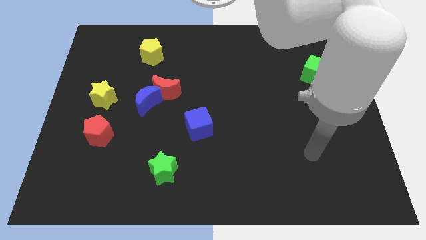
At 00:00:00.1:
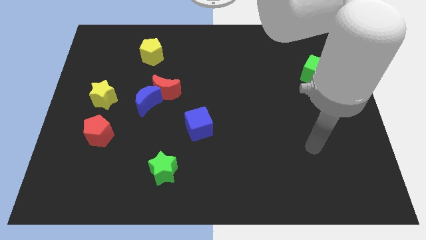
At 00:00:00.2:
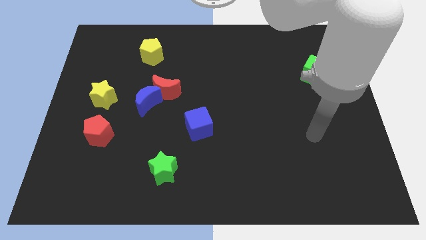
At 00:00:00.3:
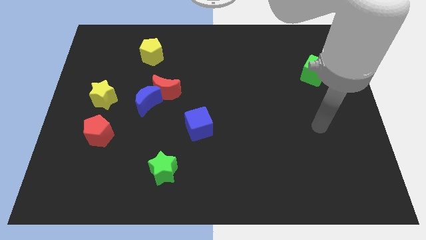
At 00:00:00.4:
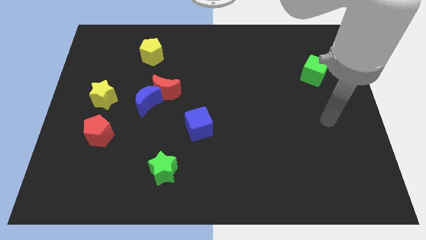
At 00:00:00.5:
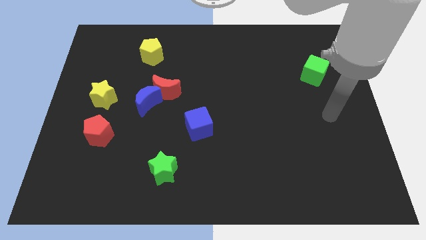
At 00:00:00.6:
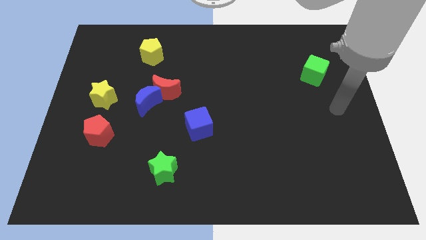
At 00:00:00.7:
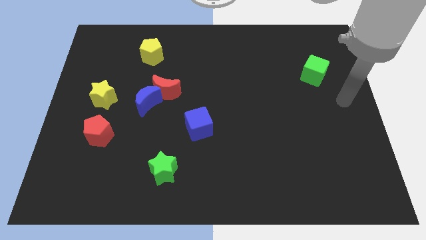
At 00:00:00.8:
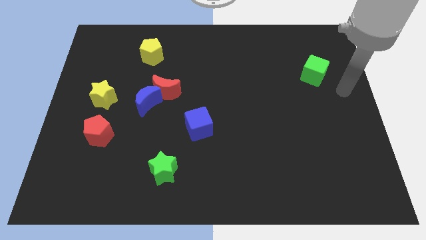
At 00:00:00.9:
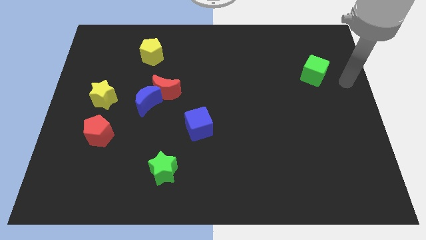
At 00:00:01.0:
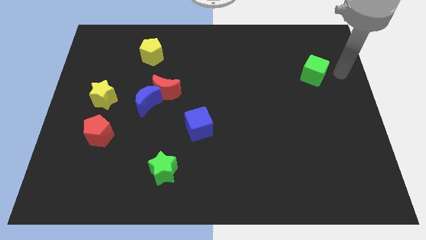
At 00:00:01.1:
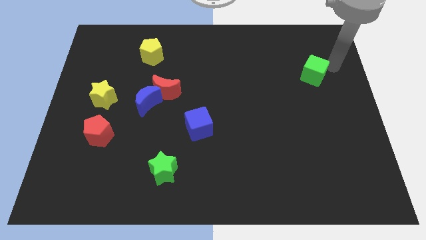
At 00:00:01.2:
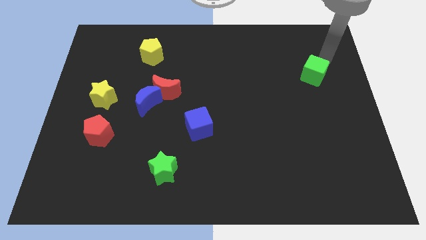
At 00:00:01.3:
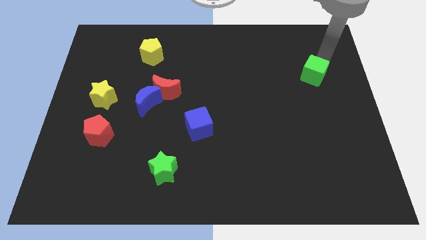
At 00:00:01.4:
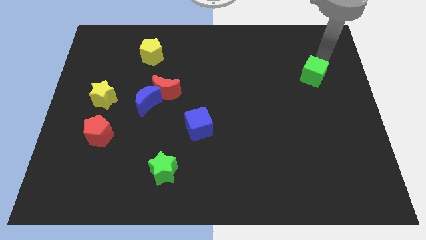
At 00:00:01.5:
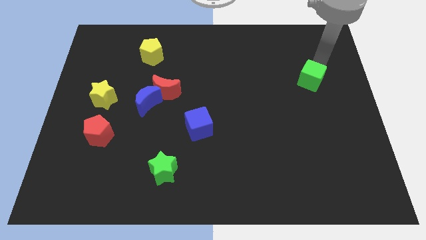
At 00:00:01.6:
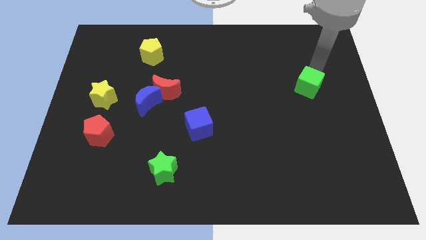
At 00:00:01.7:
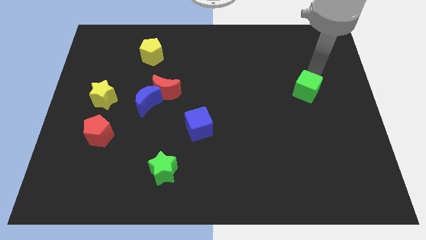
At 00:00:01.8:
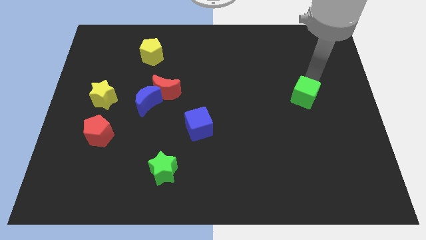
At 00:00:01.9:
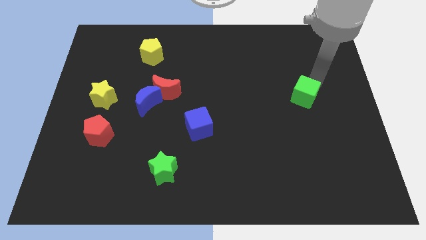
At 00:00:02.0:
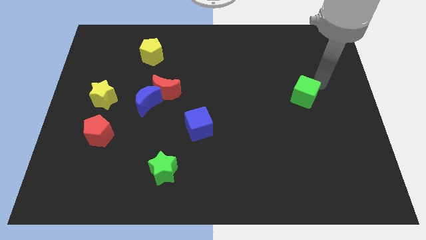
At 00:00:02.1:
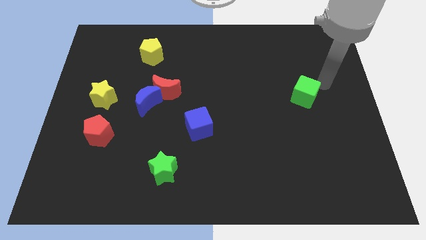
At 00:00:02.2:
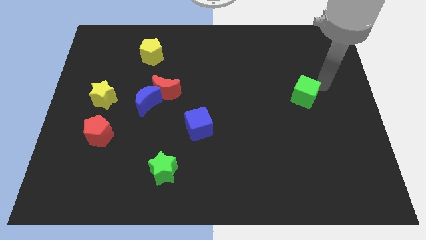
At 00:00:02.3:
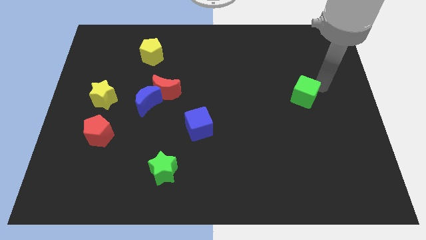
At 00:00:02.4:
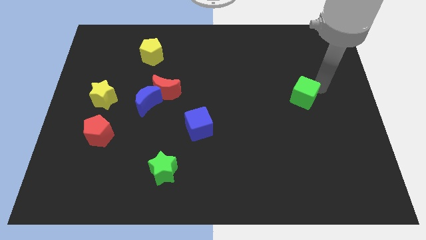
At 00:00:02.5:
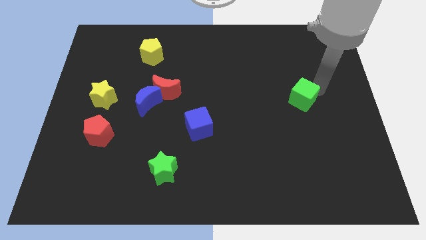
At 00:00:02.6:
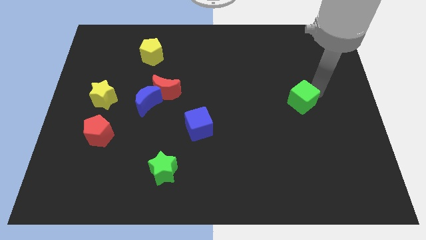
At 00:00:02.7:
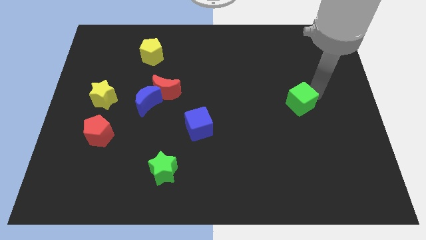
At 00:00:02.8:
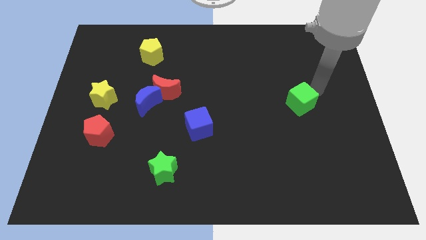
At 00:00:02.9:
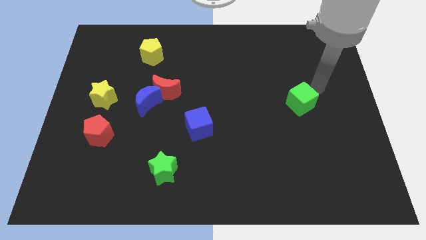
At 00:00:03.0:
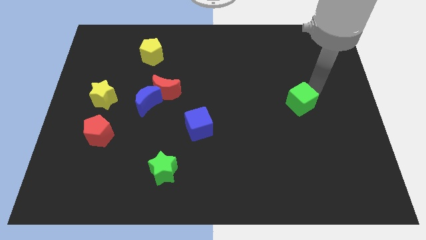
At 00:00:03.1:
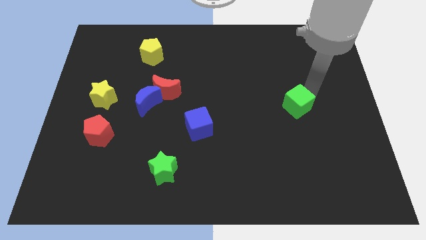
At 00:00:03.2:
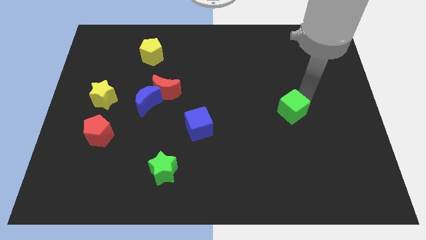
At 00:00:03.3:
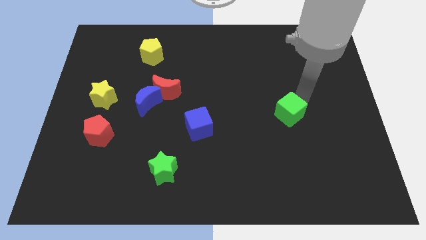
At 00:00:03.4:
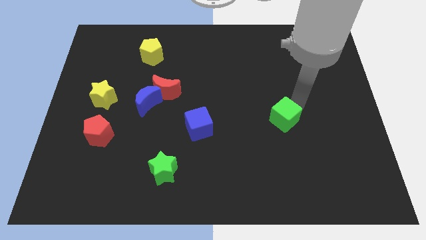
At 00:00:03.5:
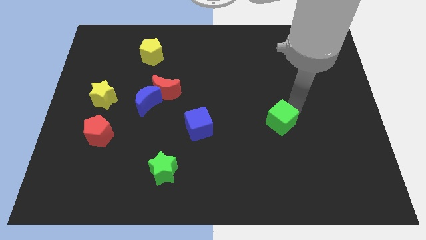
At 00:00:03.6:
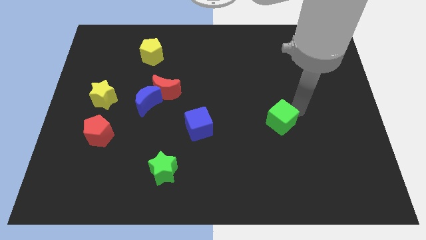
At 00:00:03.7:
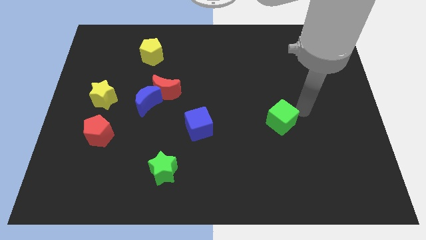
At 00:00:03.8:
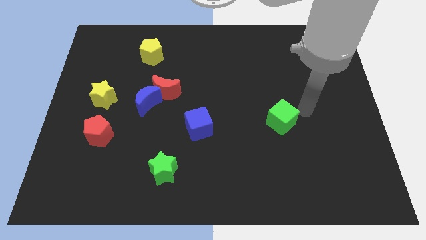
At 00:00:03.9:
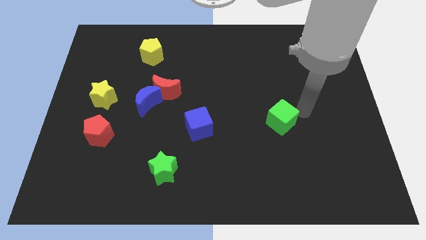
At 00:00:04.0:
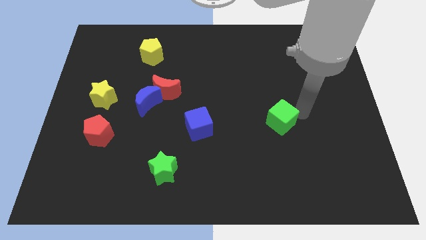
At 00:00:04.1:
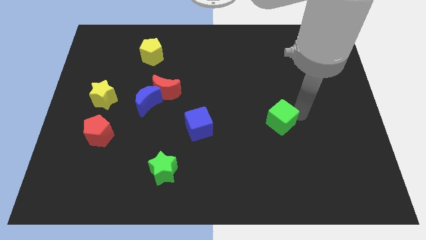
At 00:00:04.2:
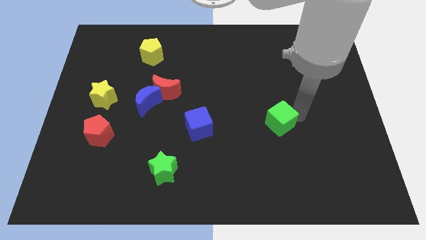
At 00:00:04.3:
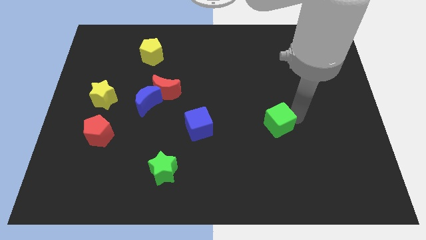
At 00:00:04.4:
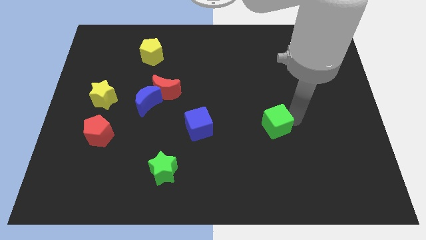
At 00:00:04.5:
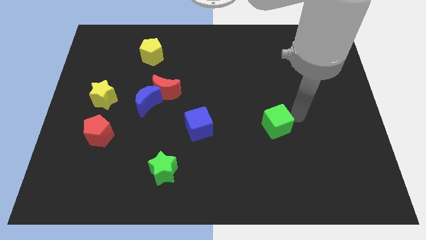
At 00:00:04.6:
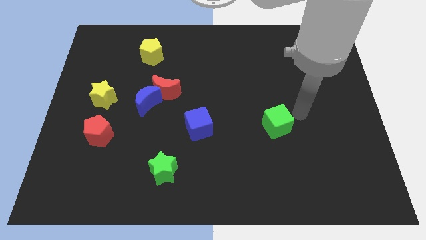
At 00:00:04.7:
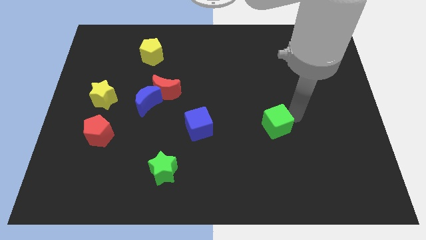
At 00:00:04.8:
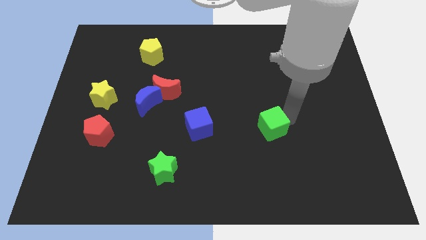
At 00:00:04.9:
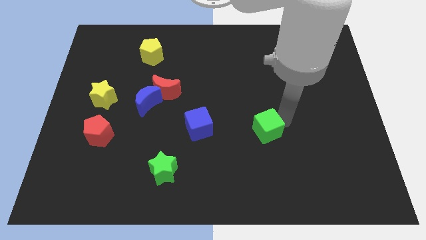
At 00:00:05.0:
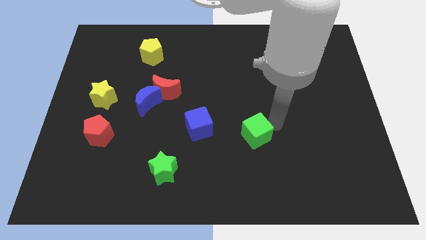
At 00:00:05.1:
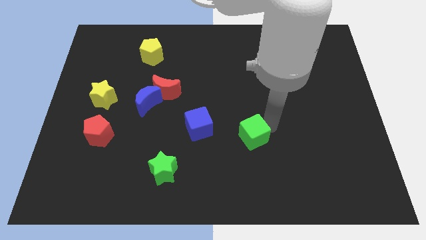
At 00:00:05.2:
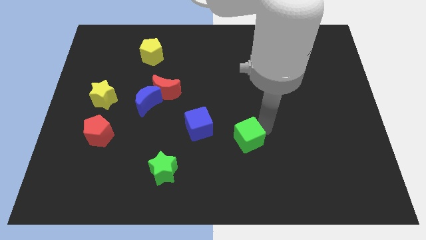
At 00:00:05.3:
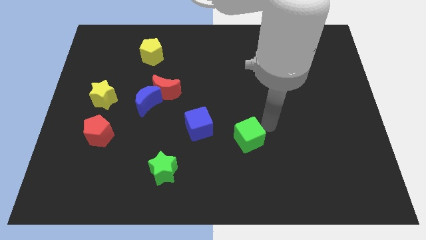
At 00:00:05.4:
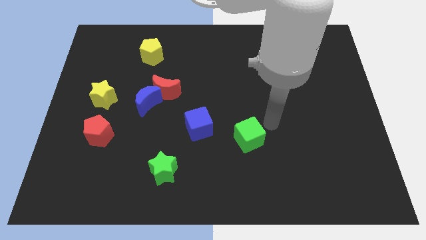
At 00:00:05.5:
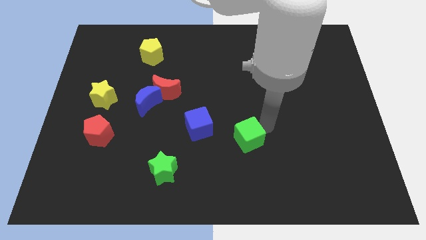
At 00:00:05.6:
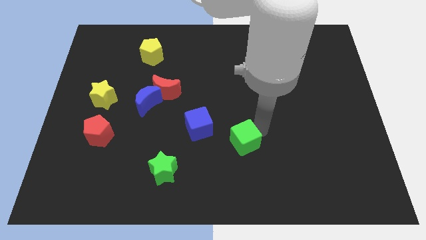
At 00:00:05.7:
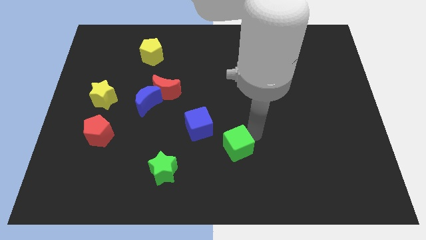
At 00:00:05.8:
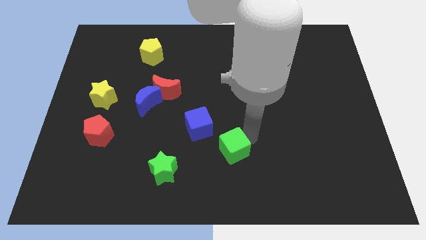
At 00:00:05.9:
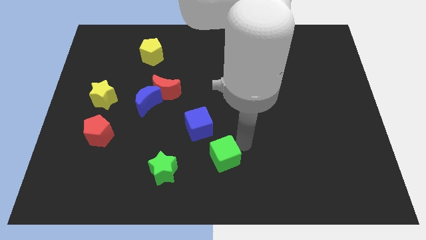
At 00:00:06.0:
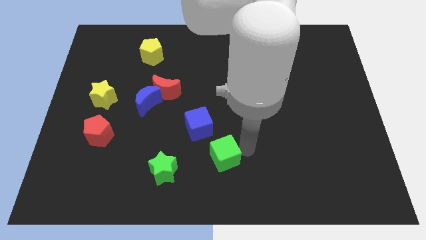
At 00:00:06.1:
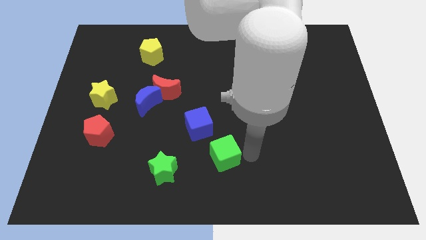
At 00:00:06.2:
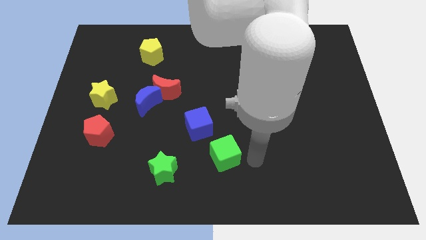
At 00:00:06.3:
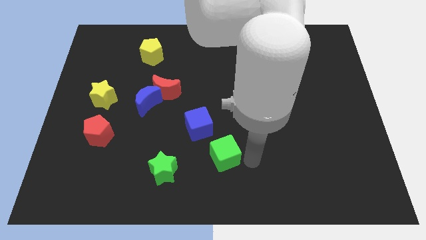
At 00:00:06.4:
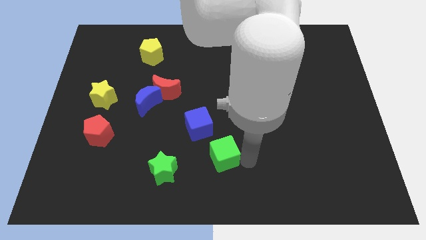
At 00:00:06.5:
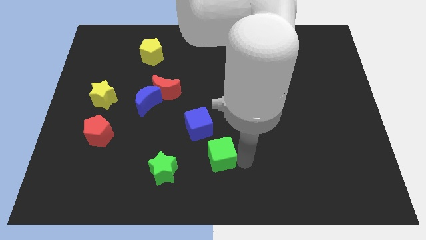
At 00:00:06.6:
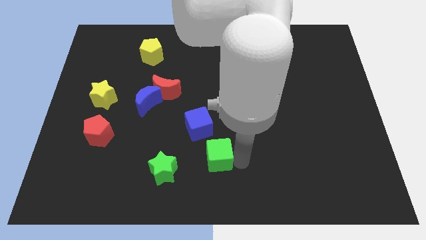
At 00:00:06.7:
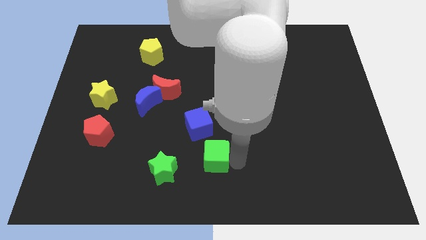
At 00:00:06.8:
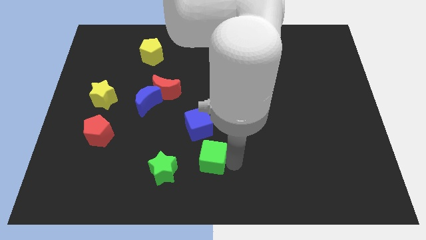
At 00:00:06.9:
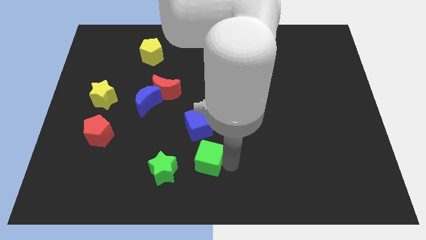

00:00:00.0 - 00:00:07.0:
push the green cube to the top right side of the green star
